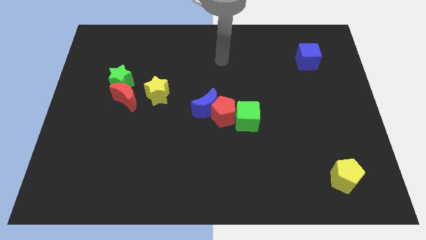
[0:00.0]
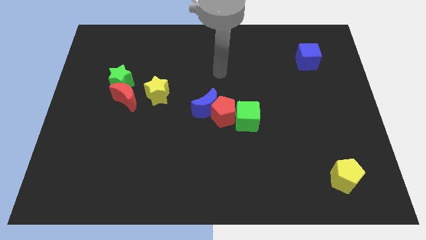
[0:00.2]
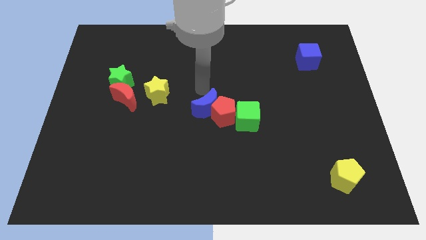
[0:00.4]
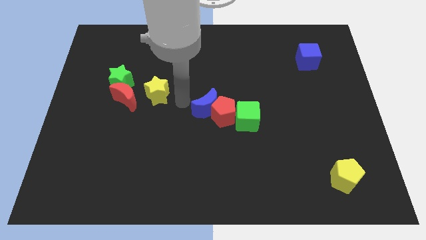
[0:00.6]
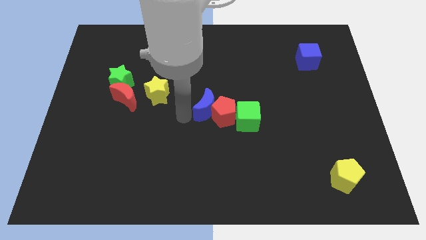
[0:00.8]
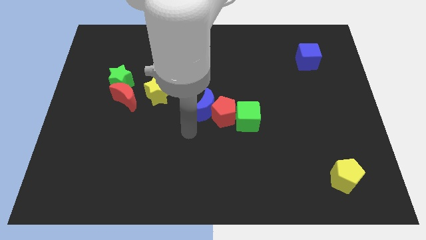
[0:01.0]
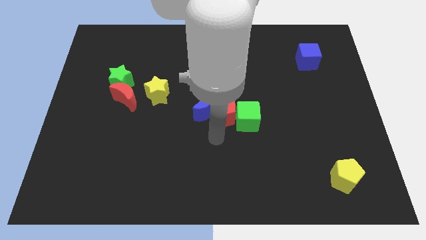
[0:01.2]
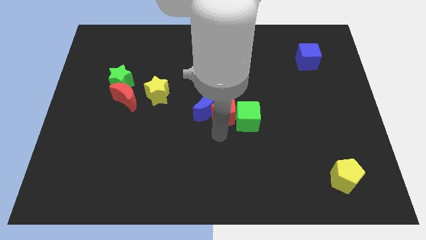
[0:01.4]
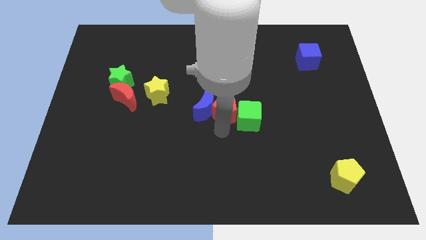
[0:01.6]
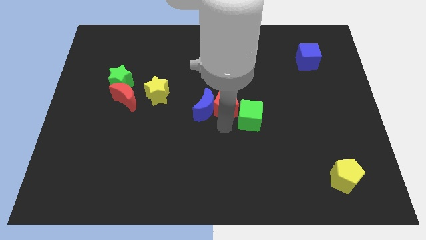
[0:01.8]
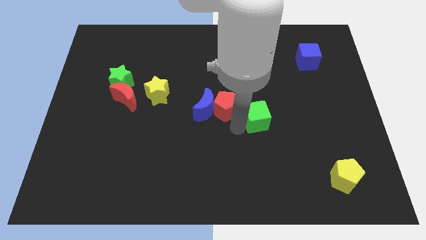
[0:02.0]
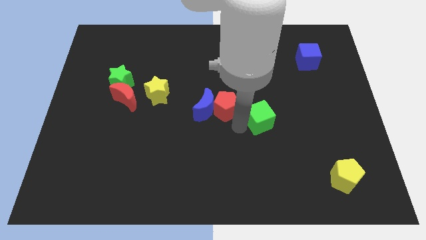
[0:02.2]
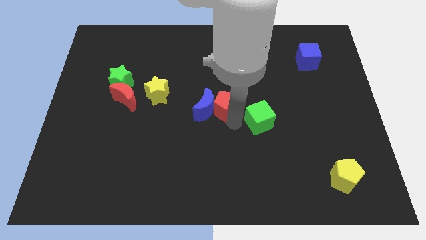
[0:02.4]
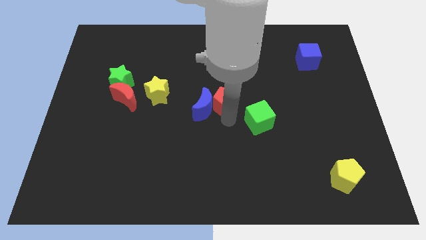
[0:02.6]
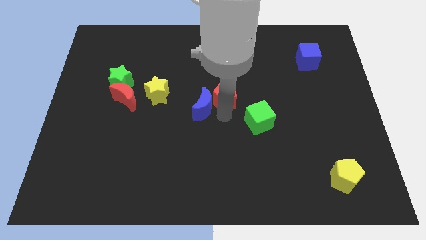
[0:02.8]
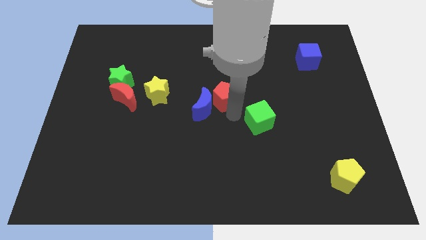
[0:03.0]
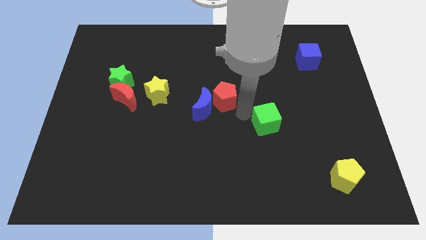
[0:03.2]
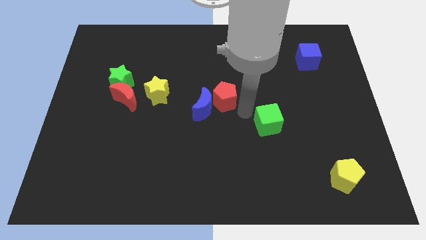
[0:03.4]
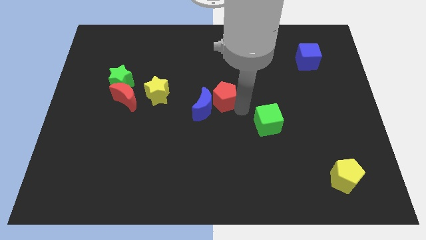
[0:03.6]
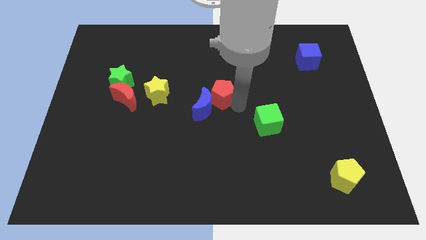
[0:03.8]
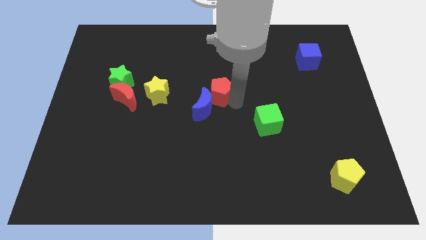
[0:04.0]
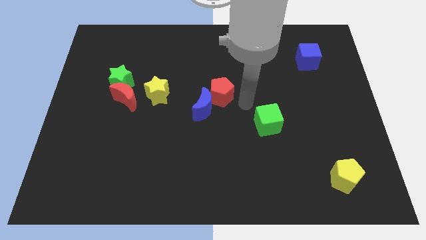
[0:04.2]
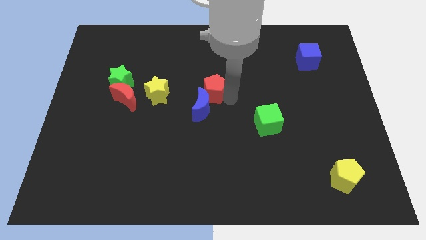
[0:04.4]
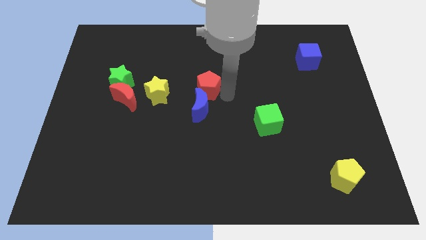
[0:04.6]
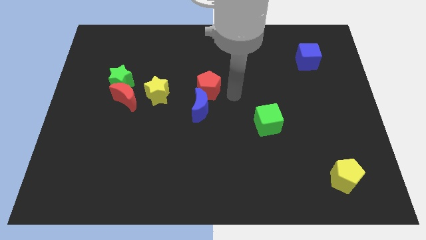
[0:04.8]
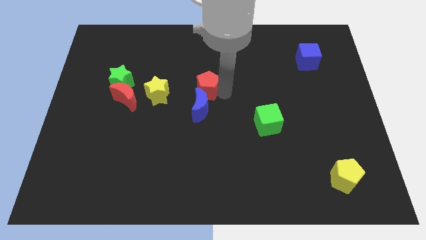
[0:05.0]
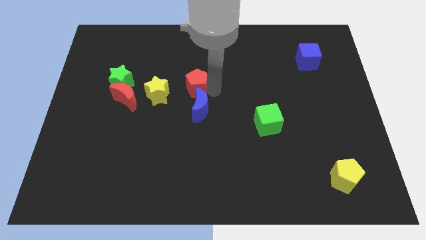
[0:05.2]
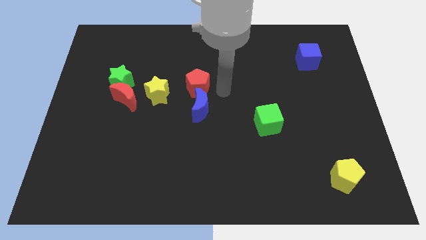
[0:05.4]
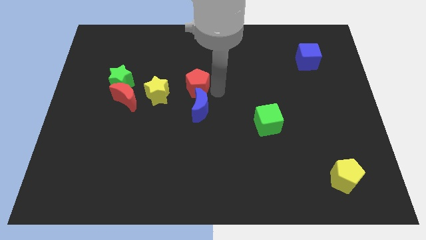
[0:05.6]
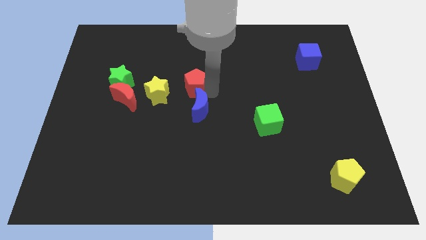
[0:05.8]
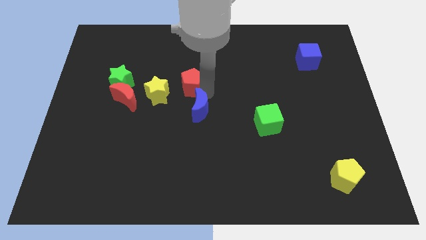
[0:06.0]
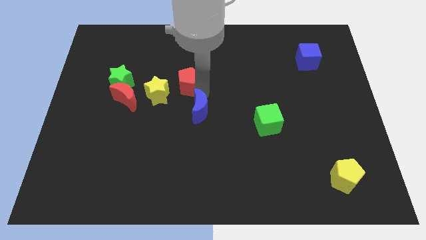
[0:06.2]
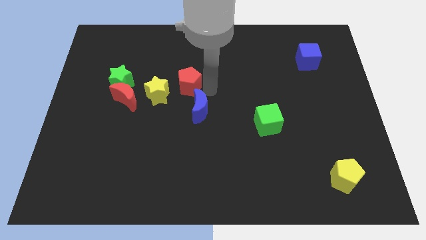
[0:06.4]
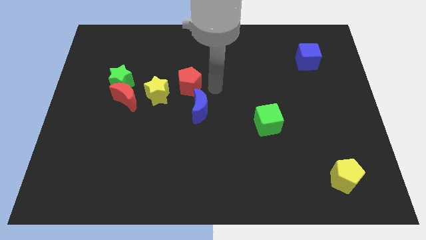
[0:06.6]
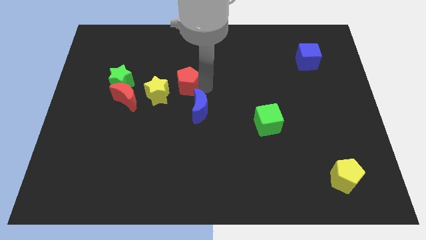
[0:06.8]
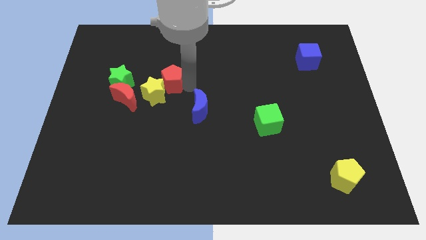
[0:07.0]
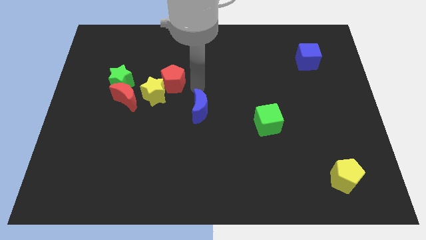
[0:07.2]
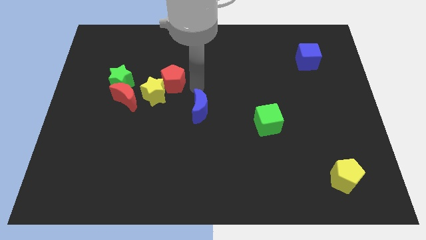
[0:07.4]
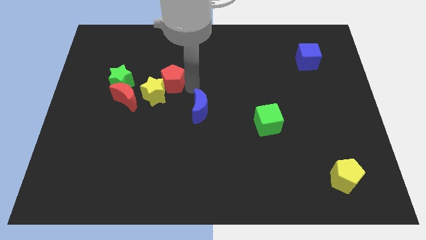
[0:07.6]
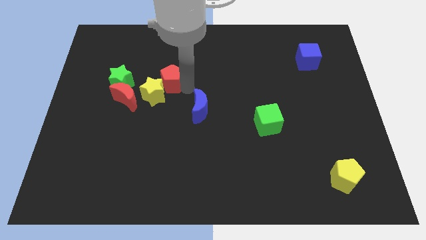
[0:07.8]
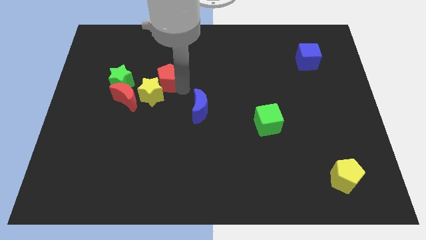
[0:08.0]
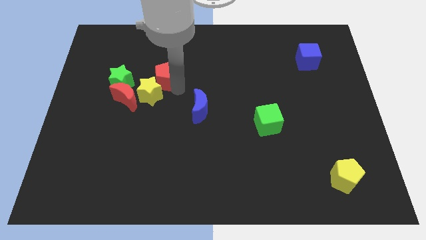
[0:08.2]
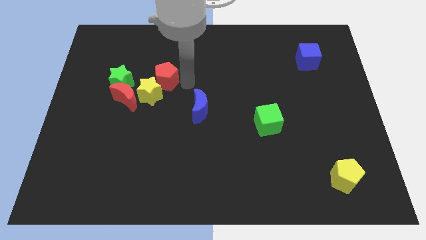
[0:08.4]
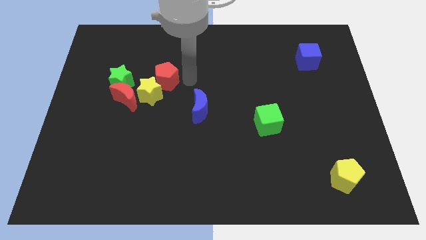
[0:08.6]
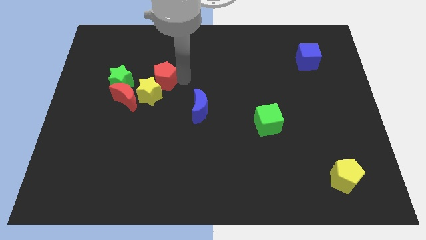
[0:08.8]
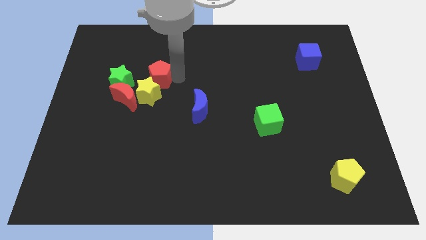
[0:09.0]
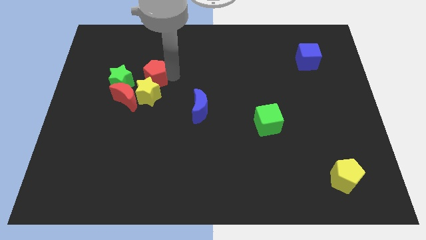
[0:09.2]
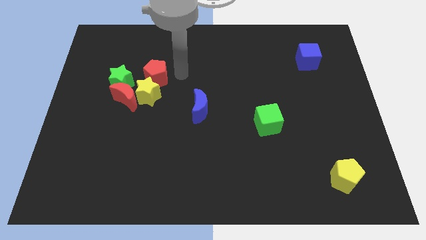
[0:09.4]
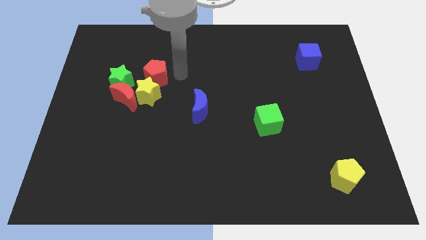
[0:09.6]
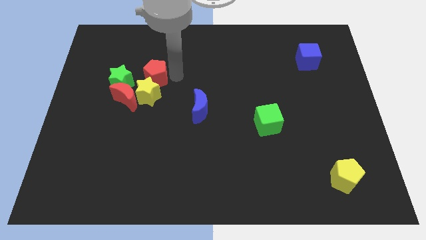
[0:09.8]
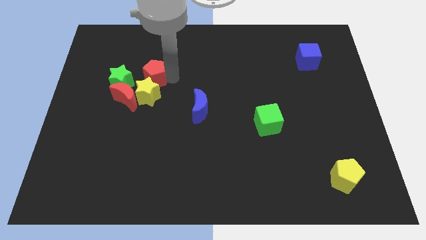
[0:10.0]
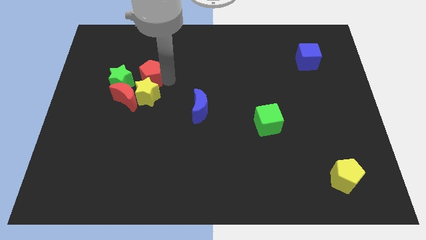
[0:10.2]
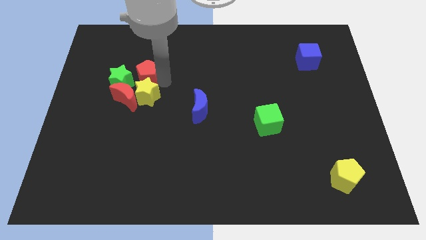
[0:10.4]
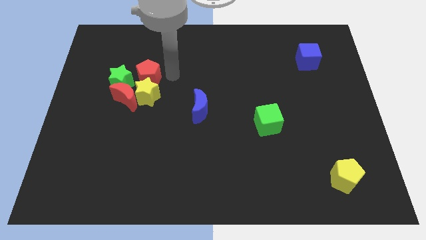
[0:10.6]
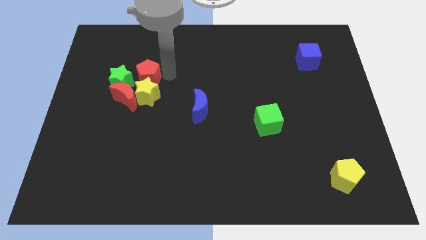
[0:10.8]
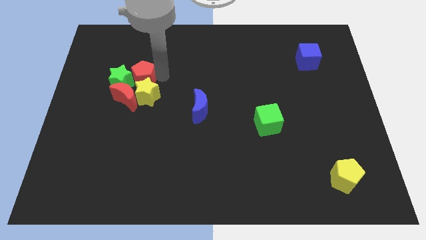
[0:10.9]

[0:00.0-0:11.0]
slide the red pentagon towards the green star

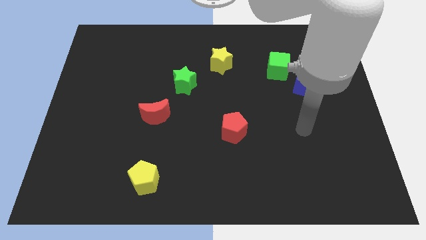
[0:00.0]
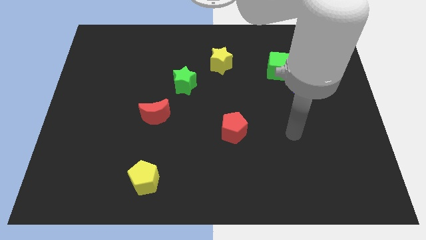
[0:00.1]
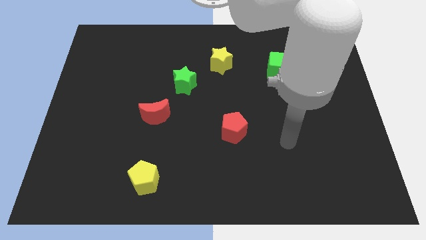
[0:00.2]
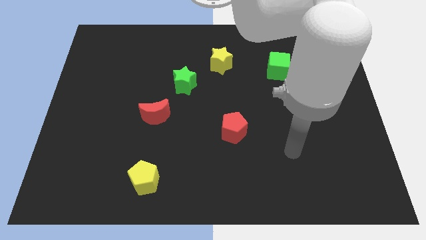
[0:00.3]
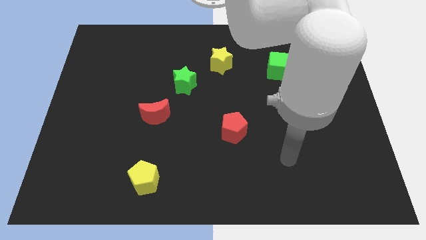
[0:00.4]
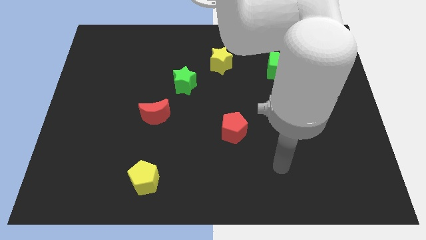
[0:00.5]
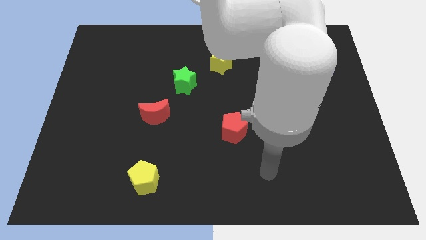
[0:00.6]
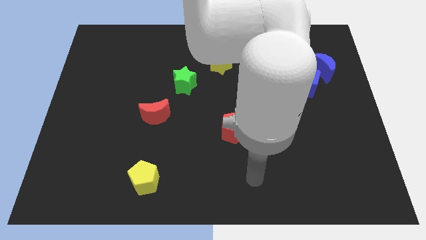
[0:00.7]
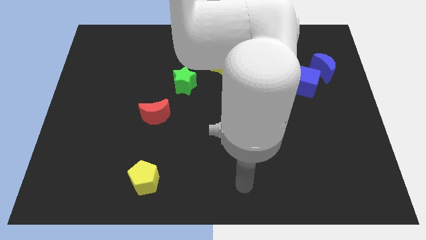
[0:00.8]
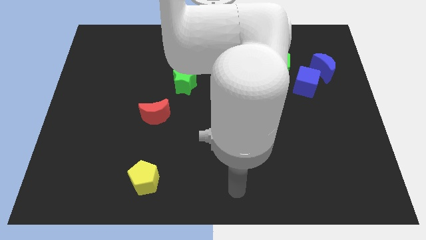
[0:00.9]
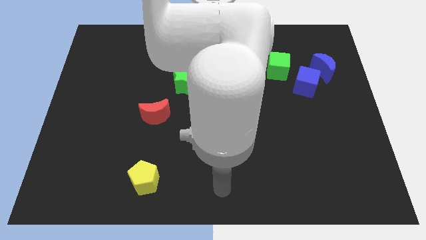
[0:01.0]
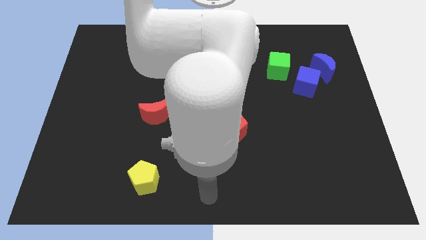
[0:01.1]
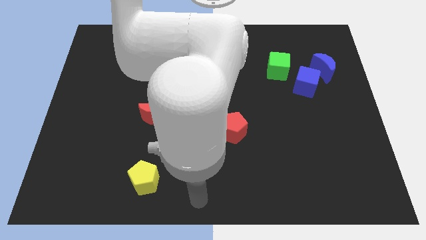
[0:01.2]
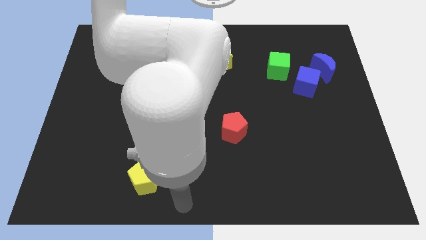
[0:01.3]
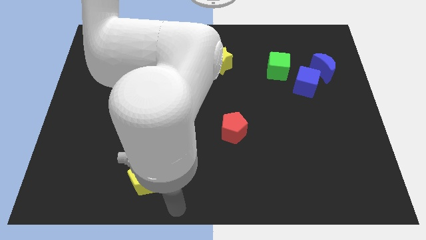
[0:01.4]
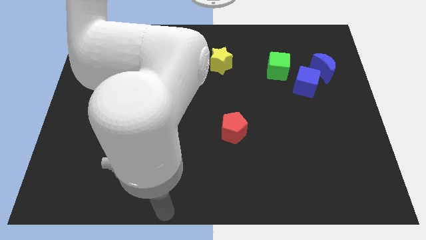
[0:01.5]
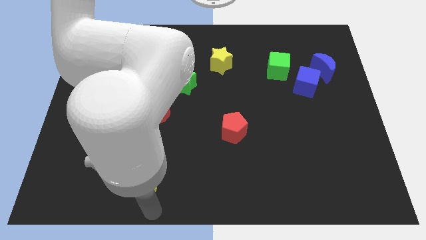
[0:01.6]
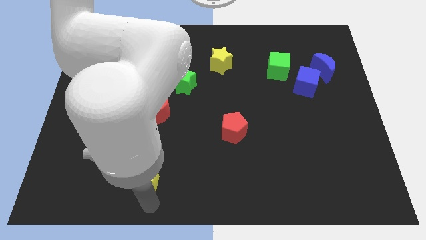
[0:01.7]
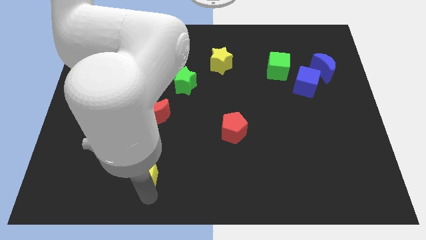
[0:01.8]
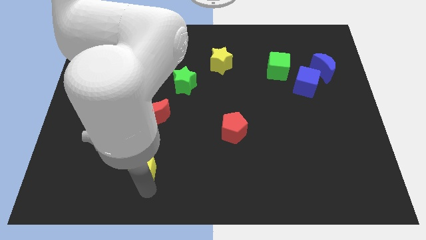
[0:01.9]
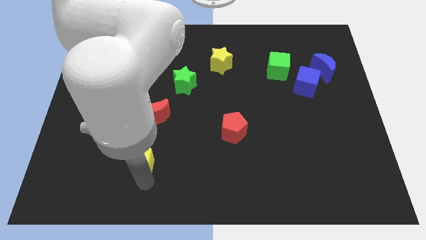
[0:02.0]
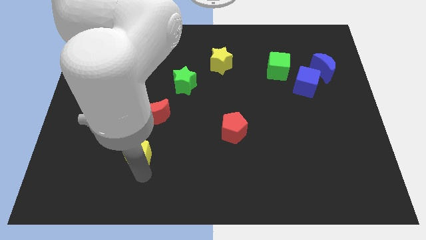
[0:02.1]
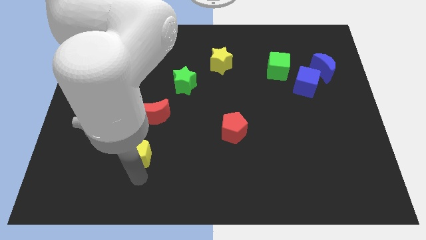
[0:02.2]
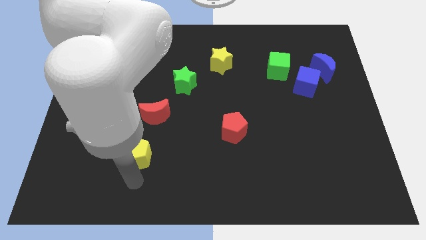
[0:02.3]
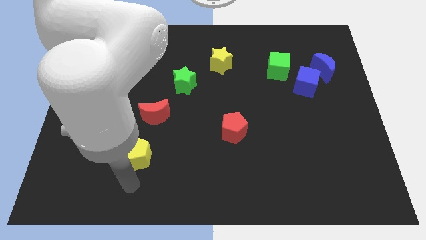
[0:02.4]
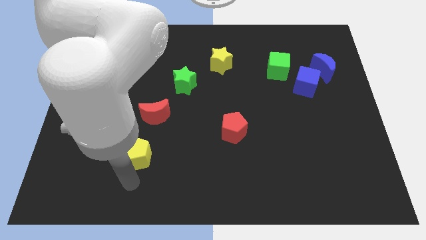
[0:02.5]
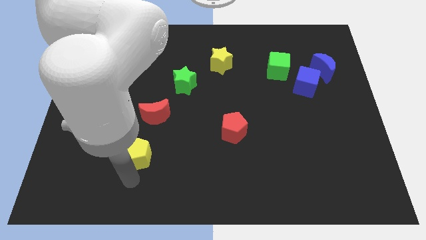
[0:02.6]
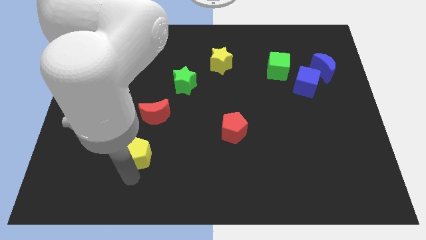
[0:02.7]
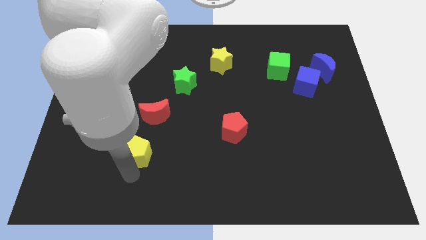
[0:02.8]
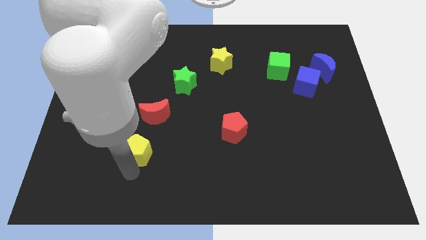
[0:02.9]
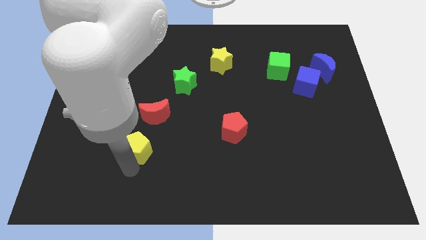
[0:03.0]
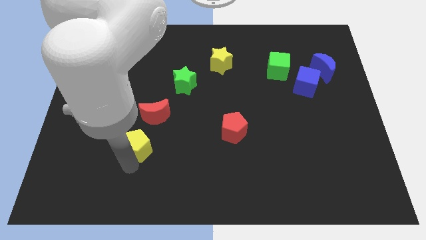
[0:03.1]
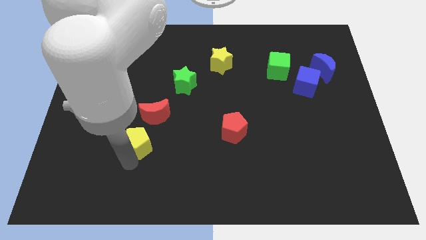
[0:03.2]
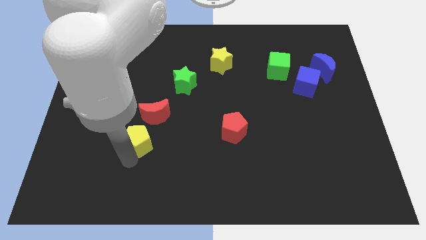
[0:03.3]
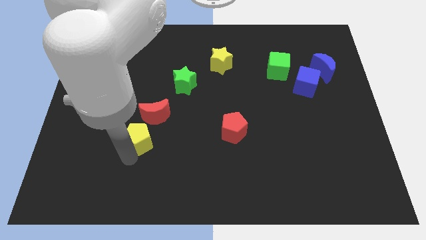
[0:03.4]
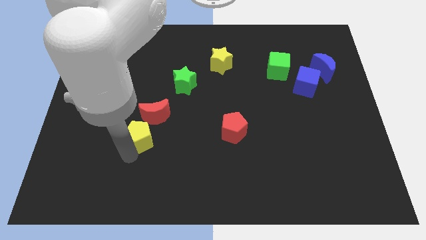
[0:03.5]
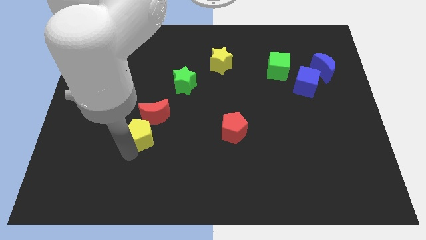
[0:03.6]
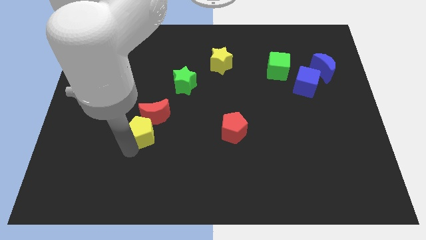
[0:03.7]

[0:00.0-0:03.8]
slide the yellow pentagon to the red moon
